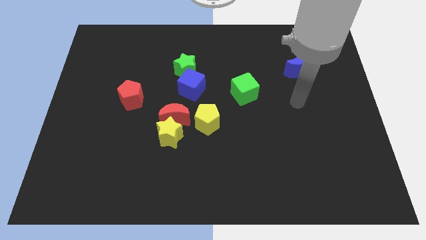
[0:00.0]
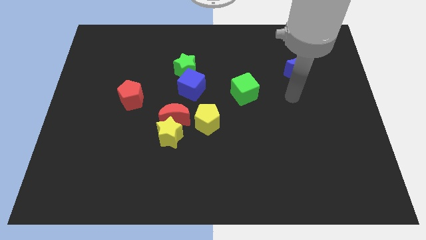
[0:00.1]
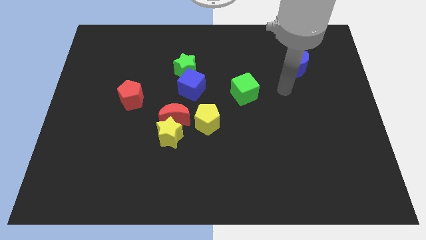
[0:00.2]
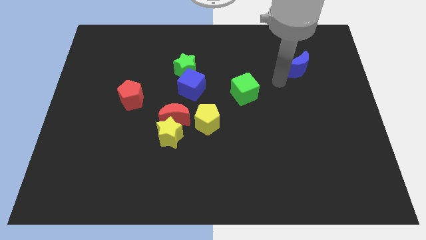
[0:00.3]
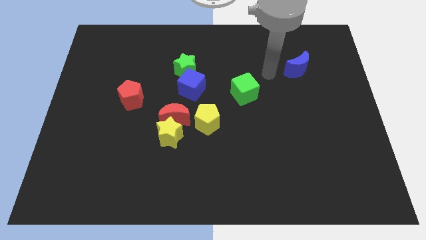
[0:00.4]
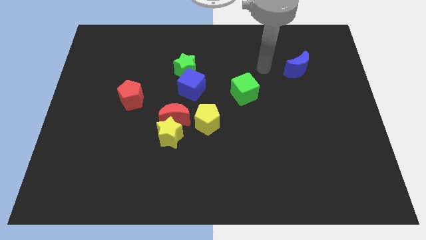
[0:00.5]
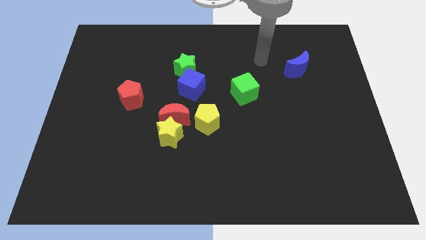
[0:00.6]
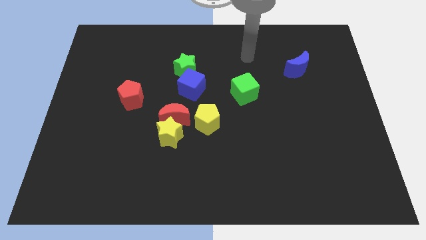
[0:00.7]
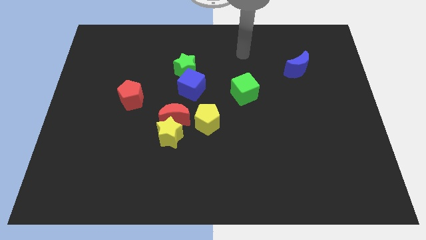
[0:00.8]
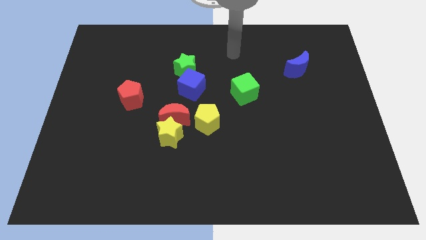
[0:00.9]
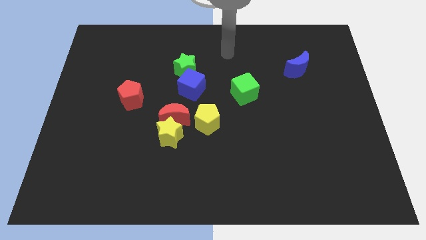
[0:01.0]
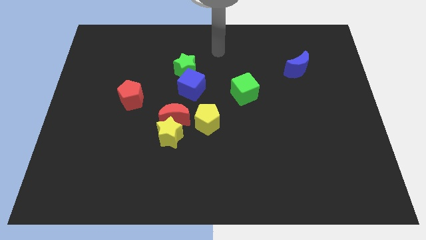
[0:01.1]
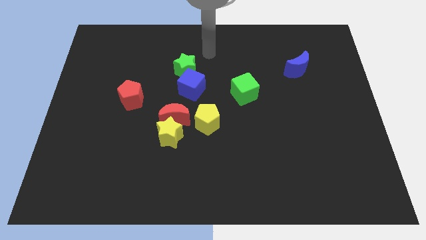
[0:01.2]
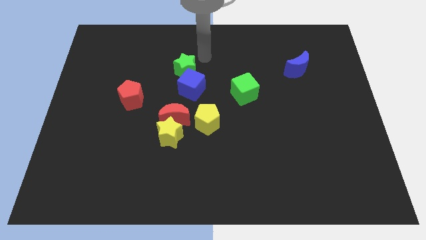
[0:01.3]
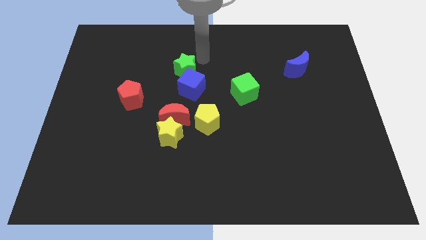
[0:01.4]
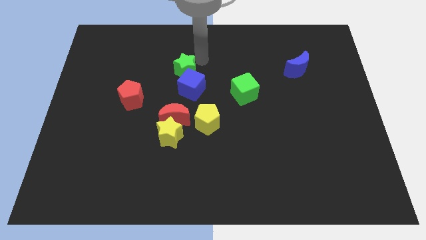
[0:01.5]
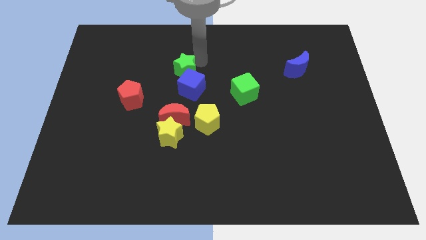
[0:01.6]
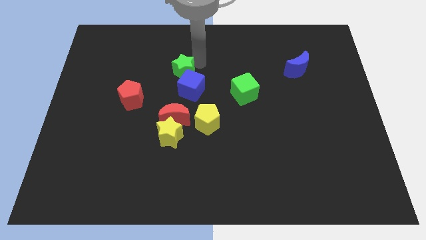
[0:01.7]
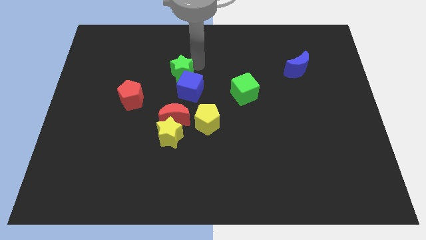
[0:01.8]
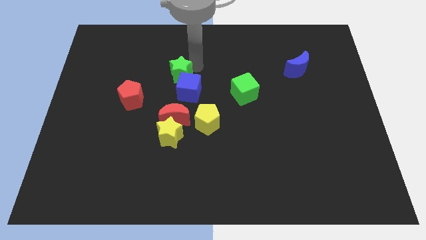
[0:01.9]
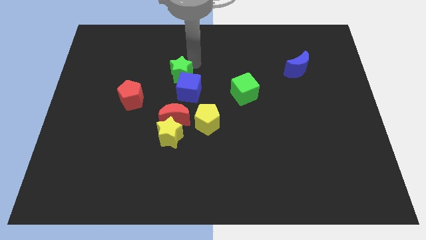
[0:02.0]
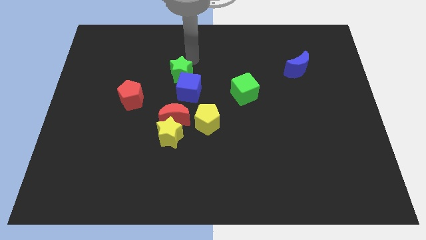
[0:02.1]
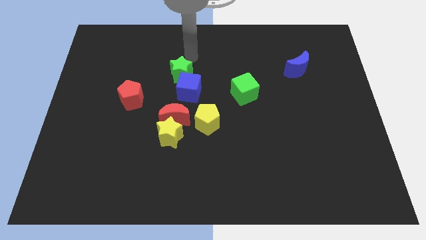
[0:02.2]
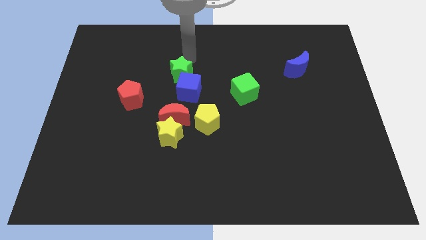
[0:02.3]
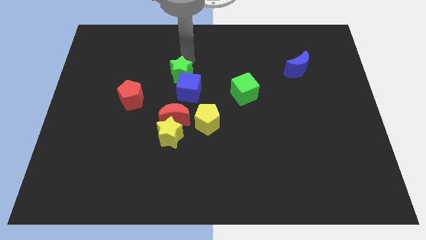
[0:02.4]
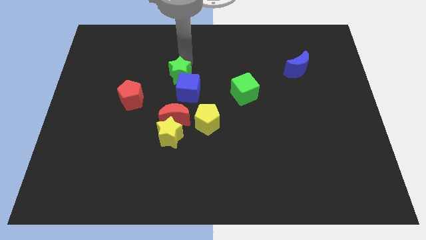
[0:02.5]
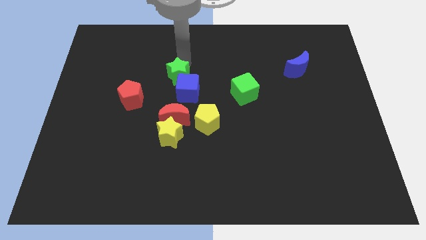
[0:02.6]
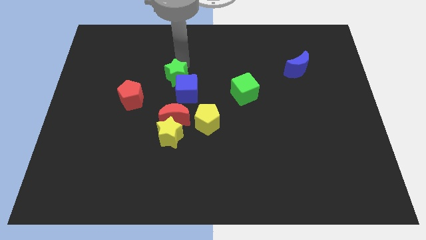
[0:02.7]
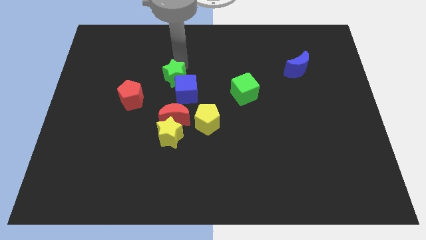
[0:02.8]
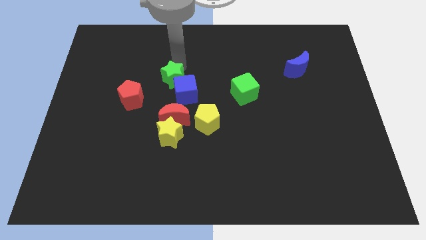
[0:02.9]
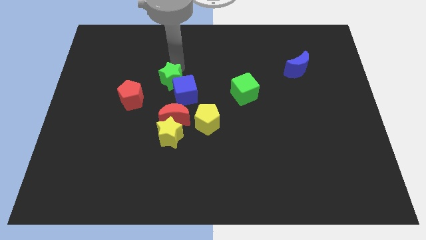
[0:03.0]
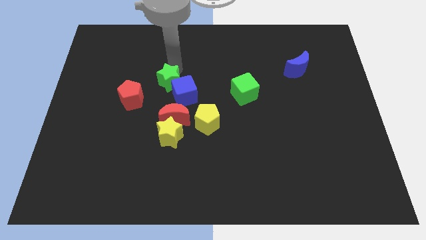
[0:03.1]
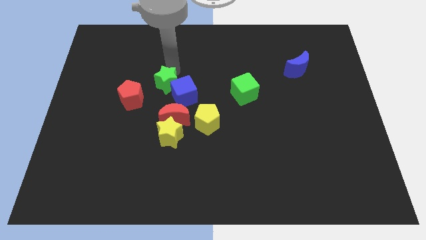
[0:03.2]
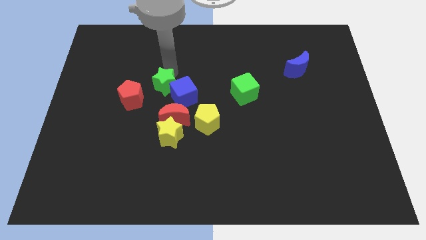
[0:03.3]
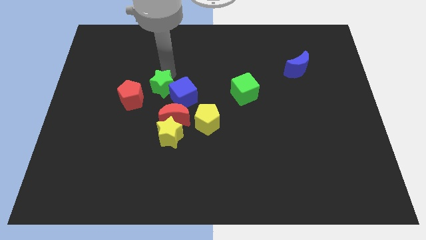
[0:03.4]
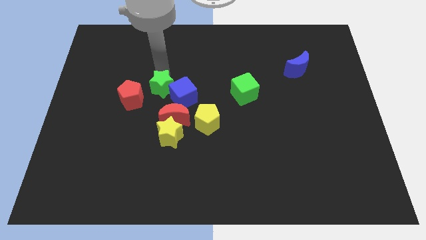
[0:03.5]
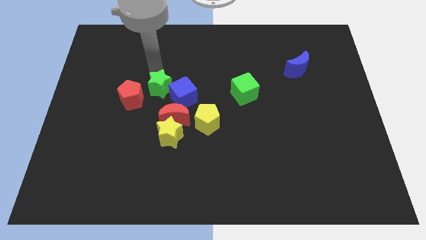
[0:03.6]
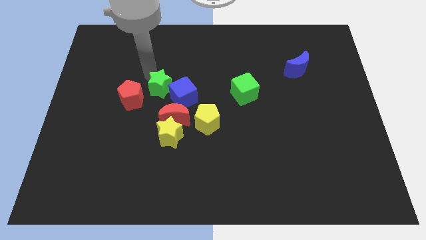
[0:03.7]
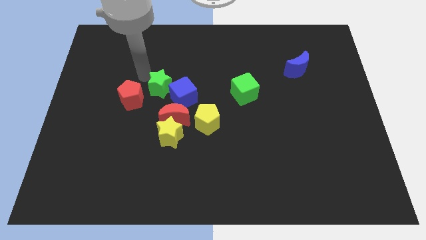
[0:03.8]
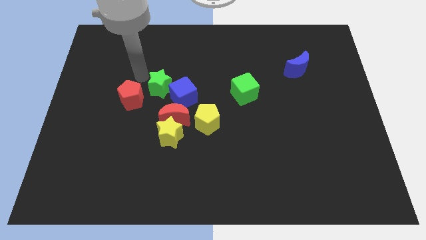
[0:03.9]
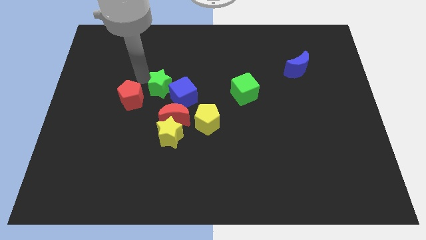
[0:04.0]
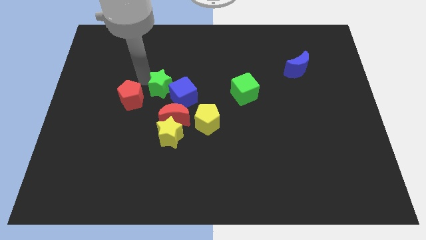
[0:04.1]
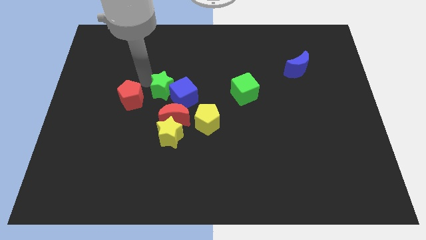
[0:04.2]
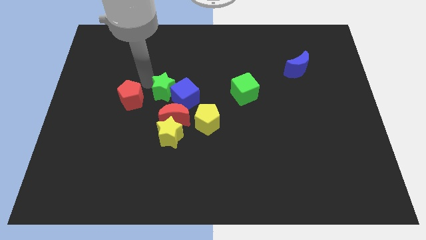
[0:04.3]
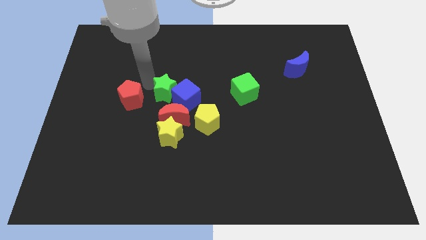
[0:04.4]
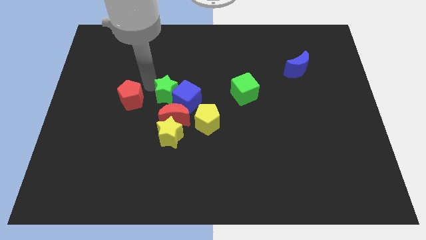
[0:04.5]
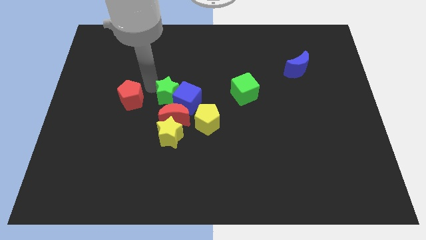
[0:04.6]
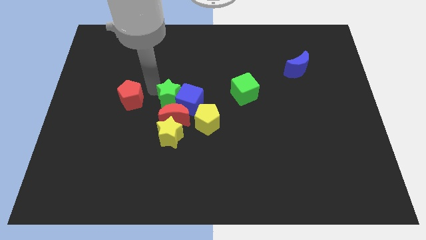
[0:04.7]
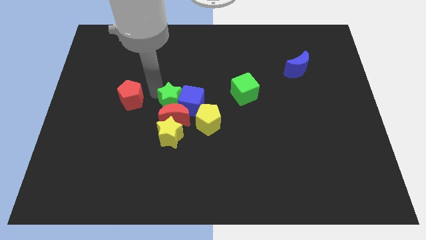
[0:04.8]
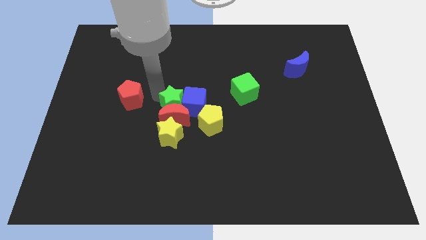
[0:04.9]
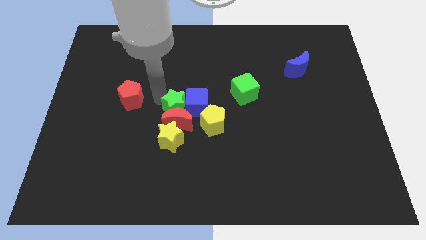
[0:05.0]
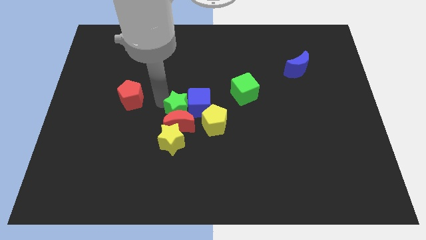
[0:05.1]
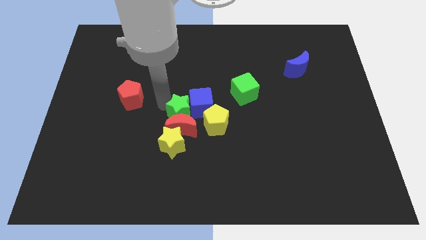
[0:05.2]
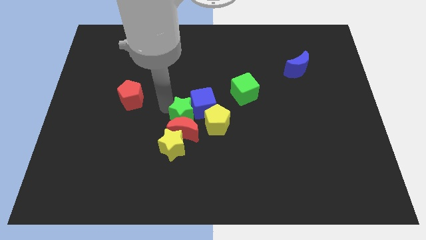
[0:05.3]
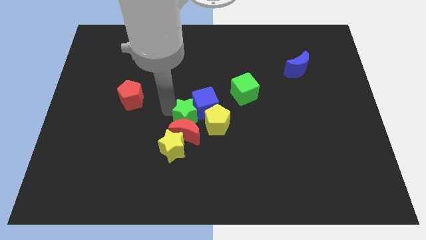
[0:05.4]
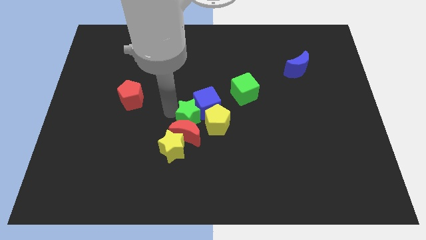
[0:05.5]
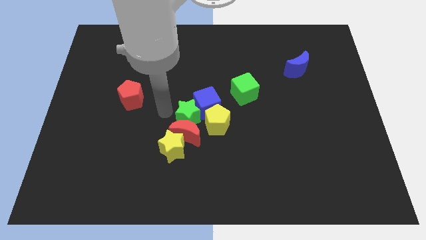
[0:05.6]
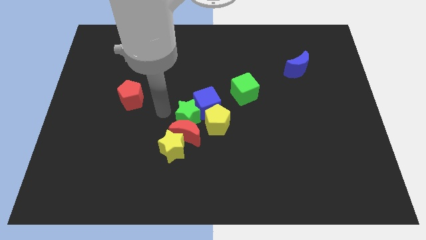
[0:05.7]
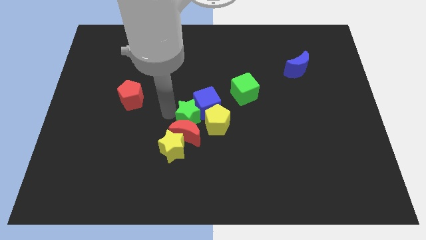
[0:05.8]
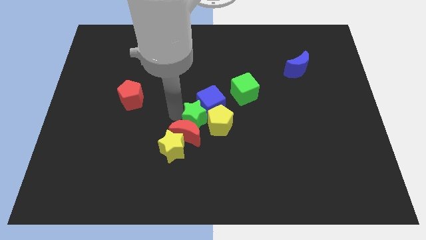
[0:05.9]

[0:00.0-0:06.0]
slide the green star close to the yellow pentagon

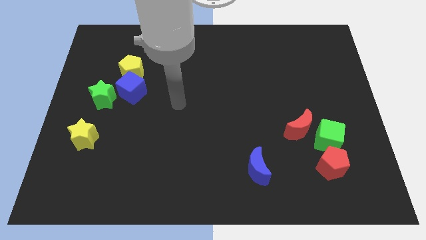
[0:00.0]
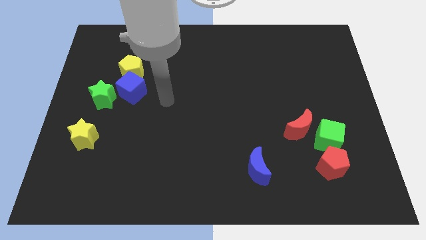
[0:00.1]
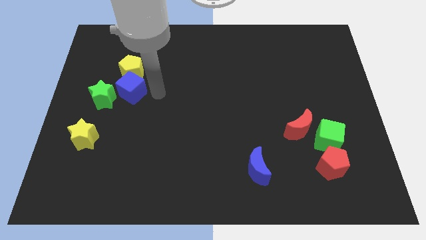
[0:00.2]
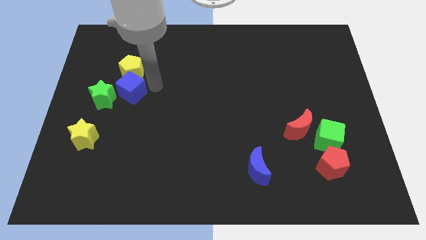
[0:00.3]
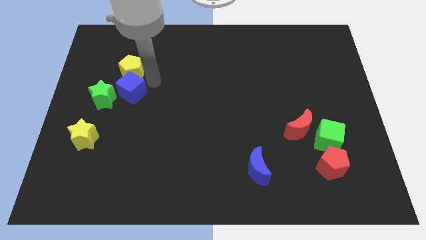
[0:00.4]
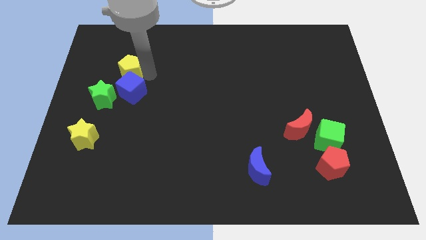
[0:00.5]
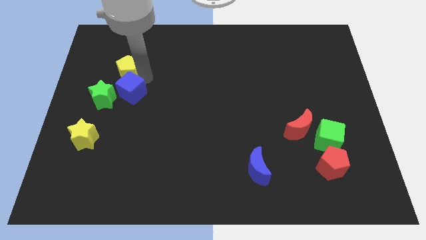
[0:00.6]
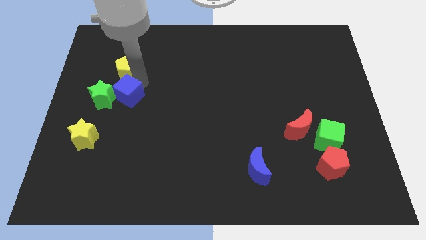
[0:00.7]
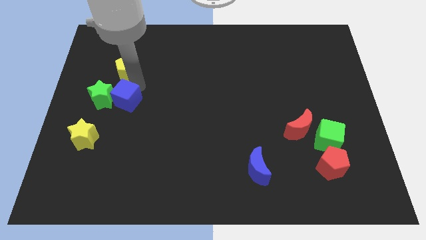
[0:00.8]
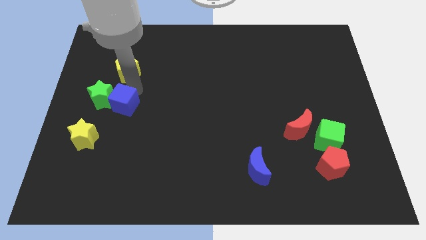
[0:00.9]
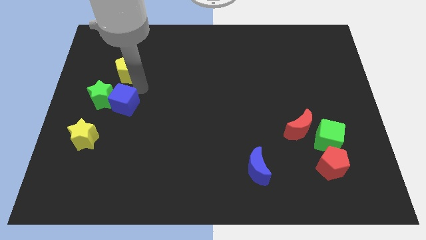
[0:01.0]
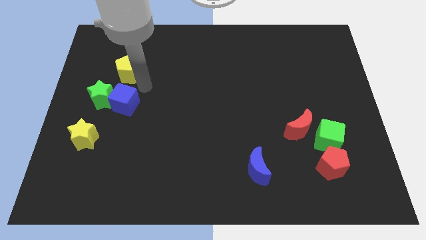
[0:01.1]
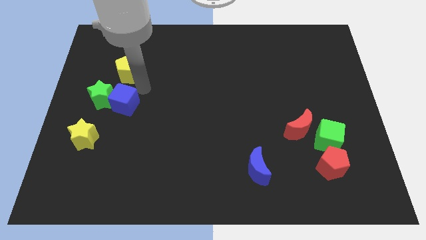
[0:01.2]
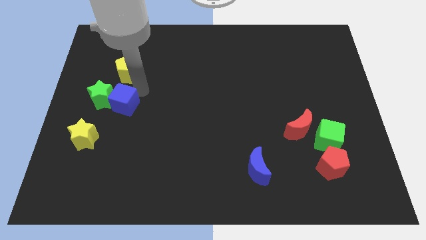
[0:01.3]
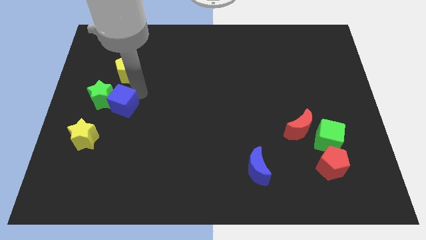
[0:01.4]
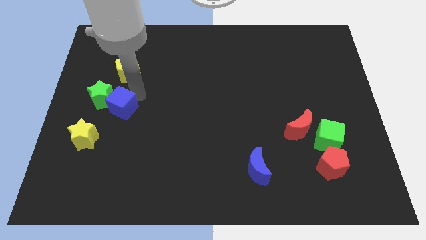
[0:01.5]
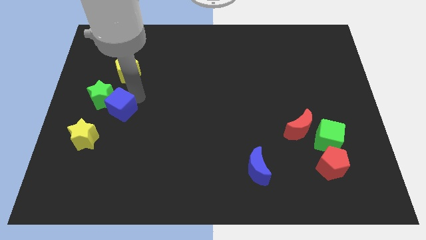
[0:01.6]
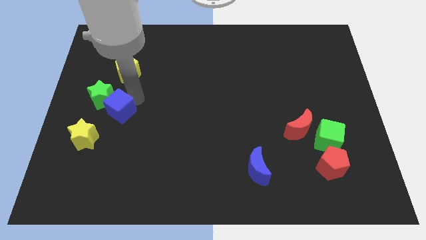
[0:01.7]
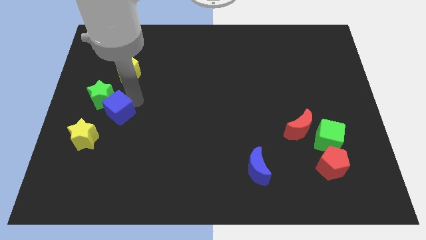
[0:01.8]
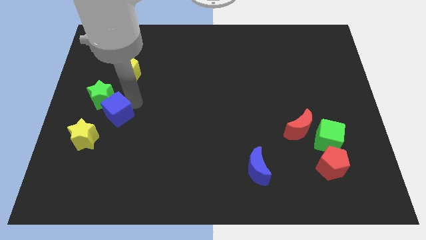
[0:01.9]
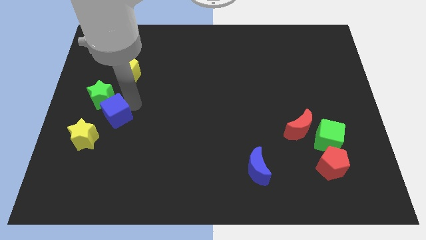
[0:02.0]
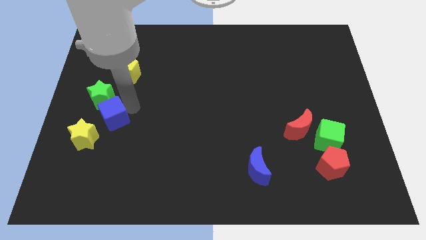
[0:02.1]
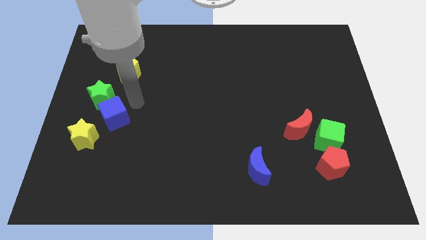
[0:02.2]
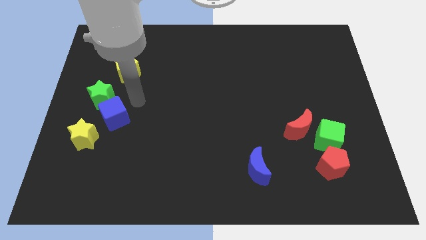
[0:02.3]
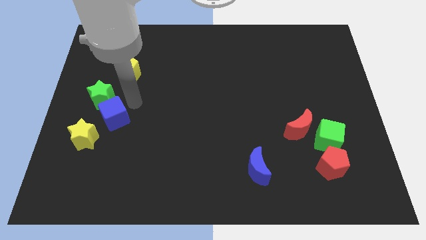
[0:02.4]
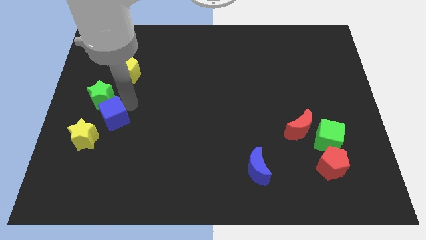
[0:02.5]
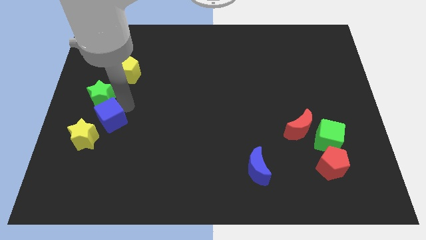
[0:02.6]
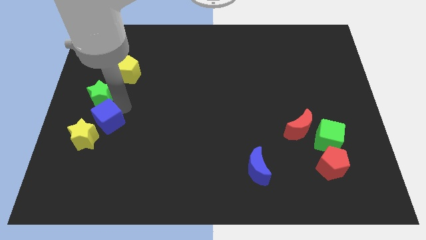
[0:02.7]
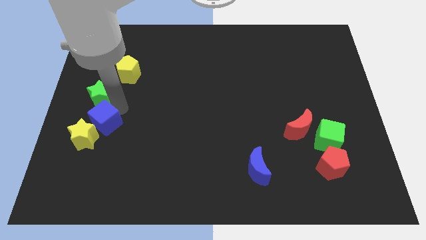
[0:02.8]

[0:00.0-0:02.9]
slide the blue cube towards the yellow star
